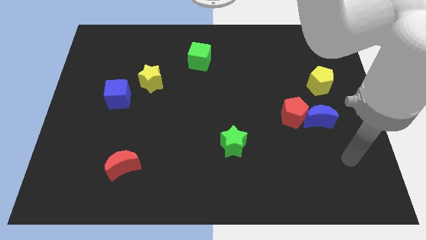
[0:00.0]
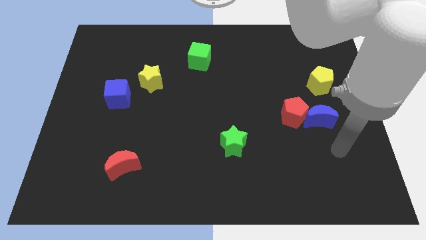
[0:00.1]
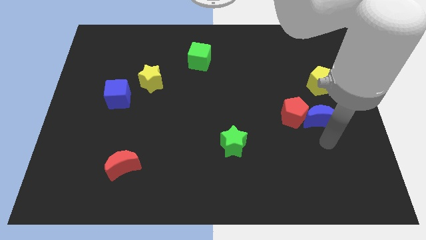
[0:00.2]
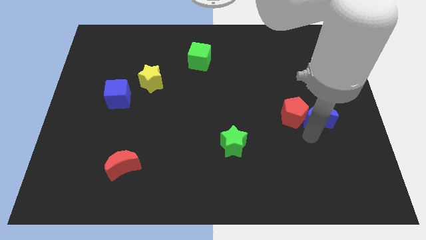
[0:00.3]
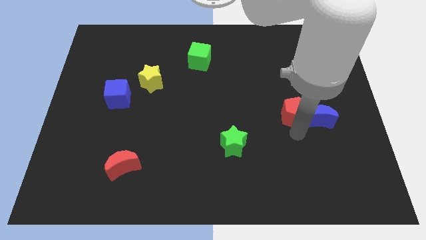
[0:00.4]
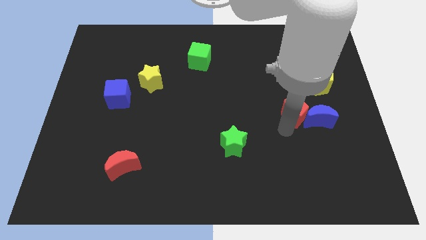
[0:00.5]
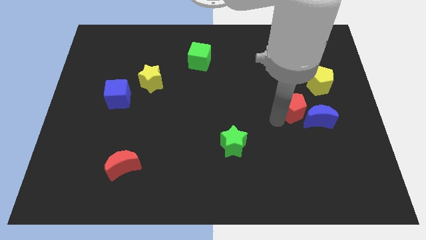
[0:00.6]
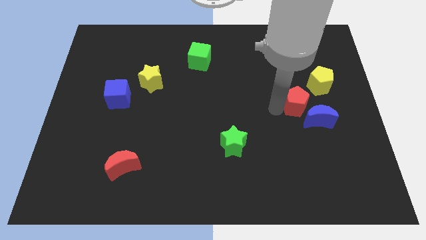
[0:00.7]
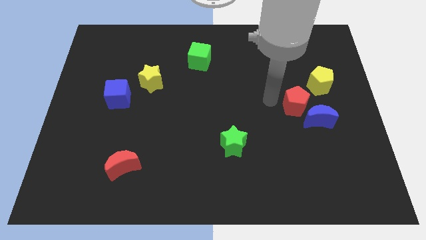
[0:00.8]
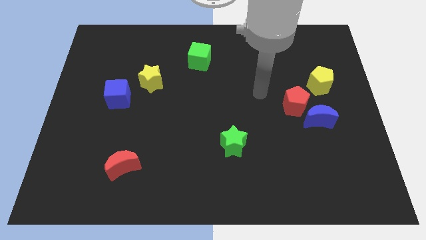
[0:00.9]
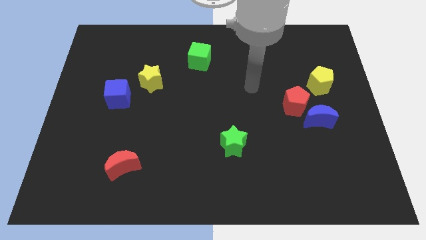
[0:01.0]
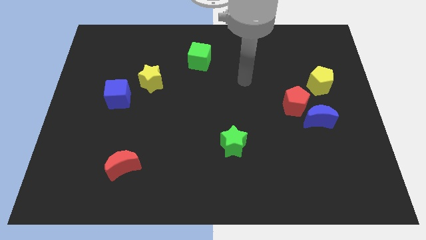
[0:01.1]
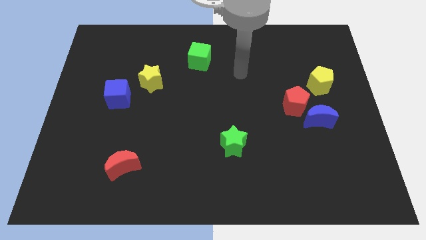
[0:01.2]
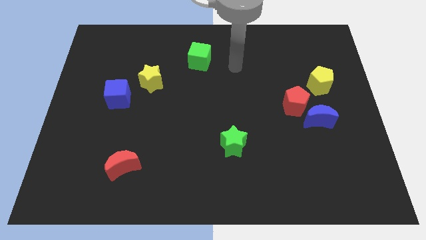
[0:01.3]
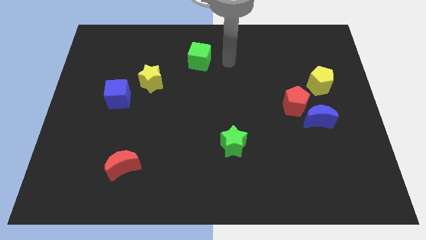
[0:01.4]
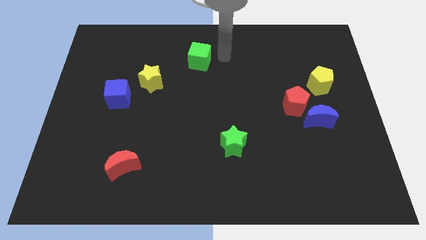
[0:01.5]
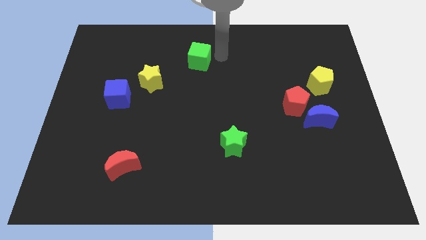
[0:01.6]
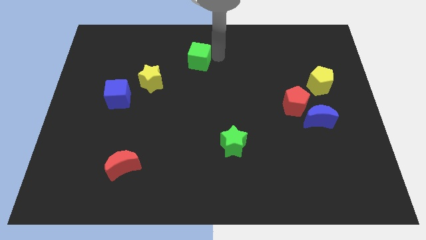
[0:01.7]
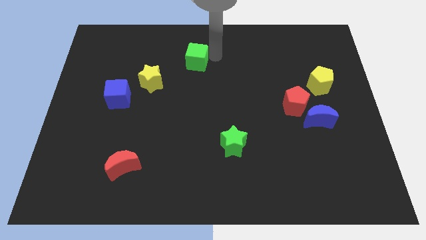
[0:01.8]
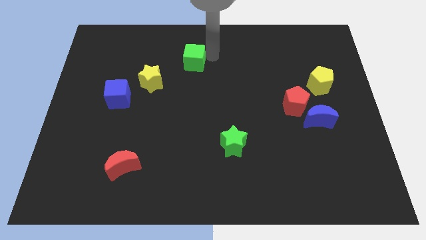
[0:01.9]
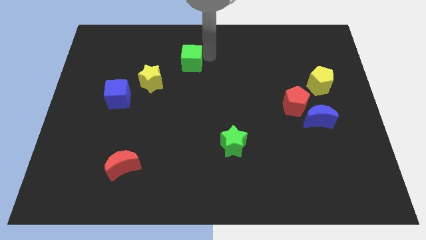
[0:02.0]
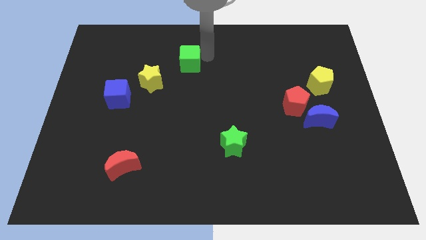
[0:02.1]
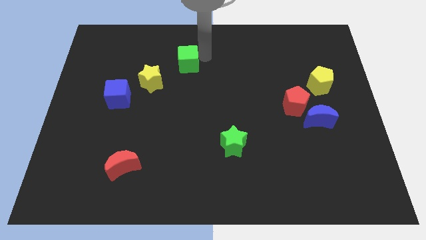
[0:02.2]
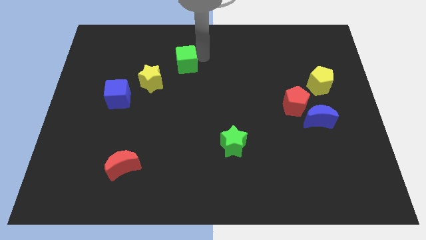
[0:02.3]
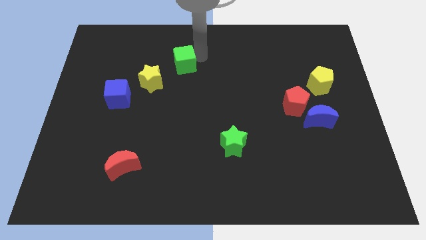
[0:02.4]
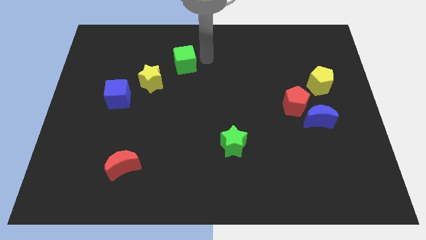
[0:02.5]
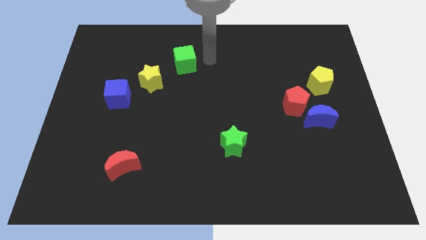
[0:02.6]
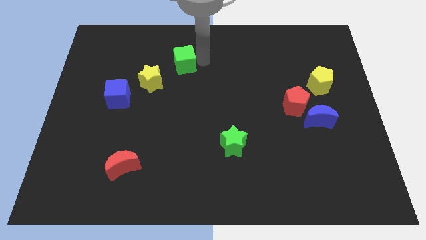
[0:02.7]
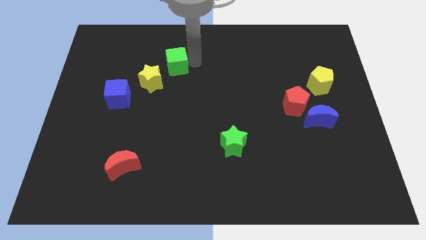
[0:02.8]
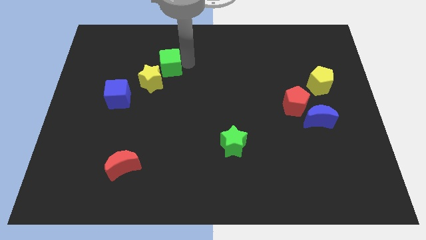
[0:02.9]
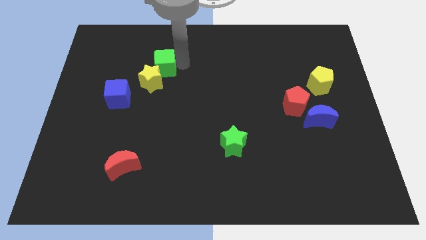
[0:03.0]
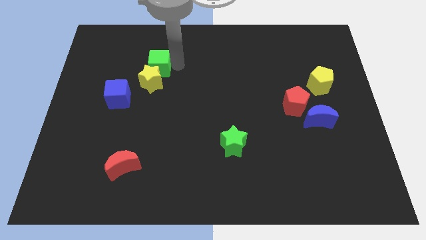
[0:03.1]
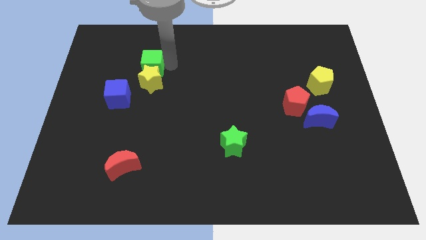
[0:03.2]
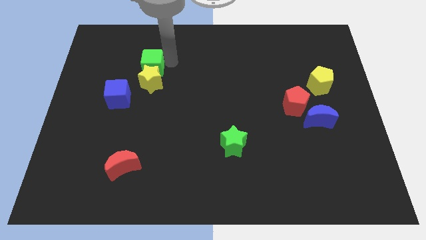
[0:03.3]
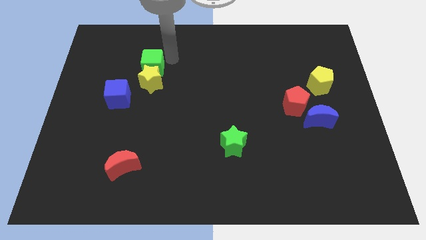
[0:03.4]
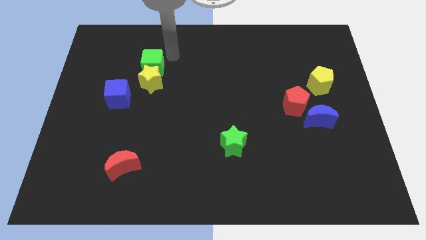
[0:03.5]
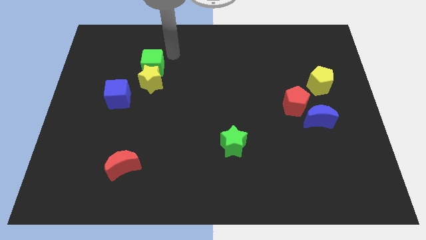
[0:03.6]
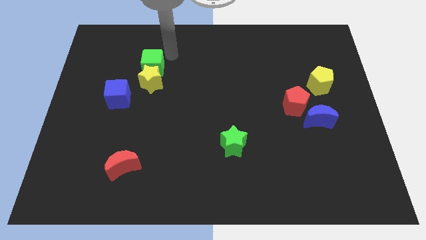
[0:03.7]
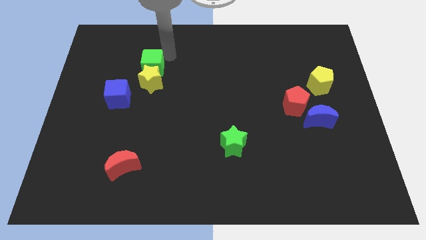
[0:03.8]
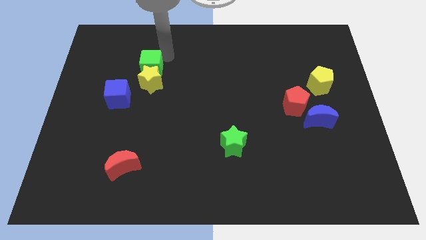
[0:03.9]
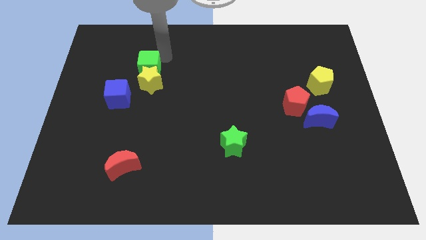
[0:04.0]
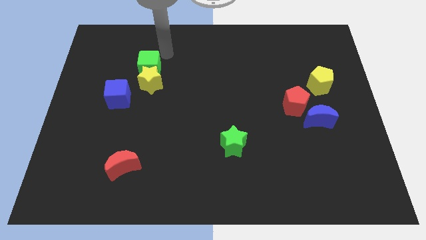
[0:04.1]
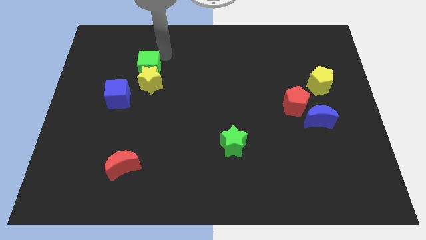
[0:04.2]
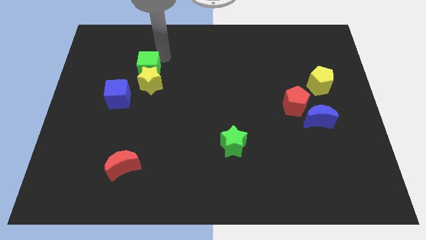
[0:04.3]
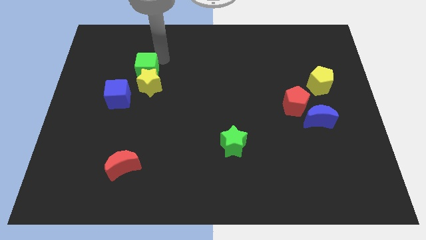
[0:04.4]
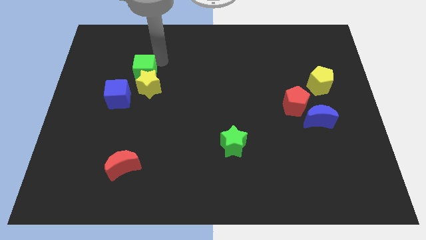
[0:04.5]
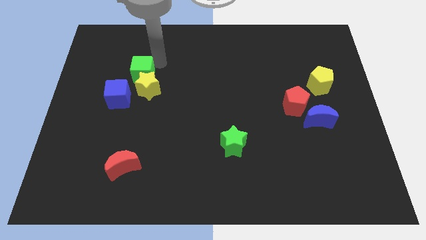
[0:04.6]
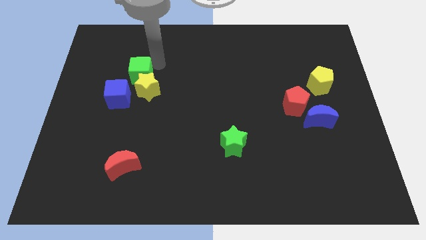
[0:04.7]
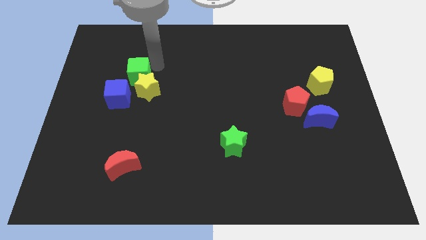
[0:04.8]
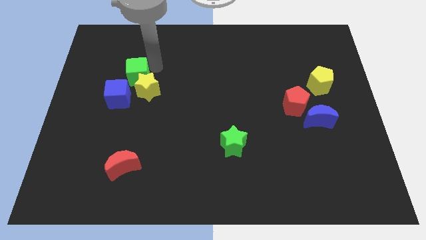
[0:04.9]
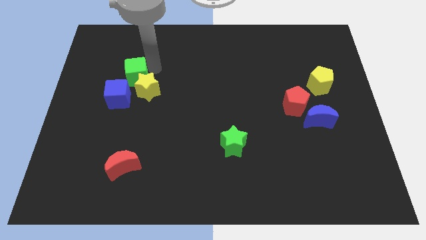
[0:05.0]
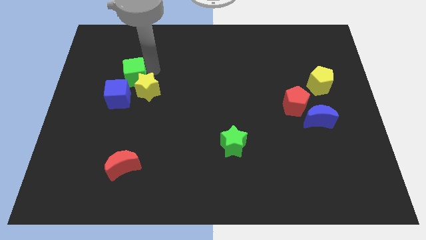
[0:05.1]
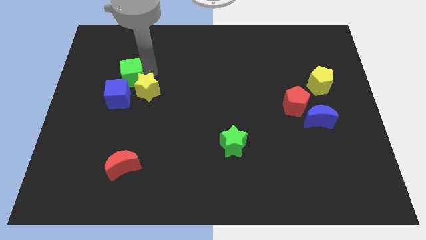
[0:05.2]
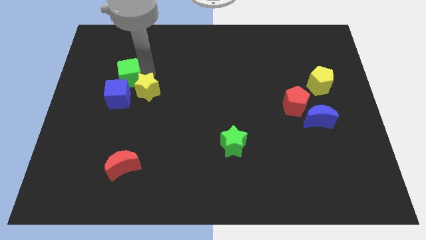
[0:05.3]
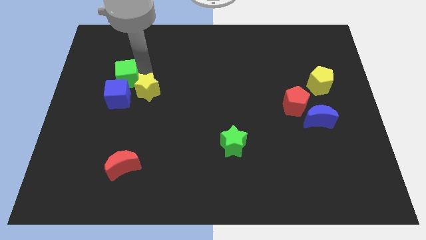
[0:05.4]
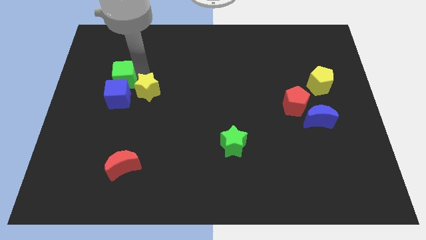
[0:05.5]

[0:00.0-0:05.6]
move the green cube next to the blue cube

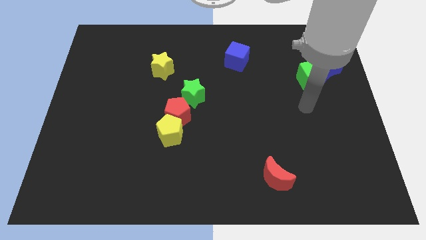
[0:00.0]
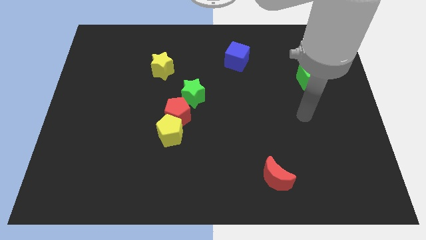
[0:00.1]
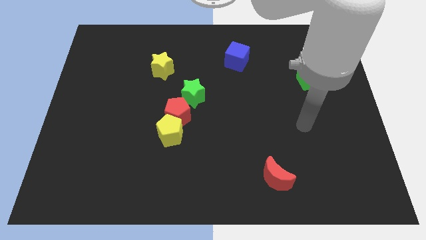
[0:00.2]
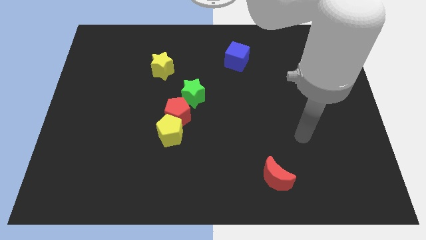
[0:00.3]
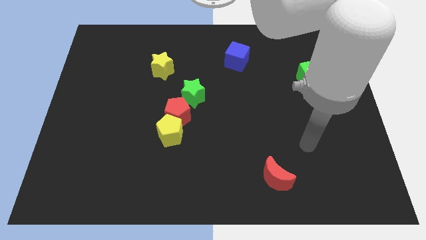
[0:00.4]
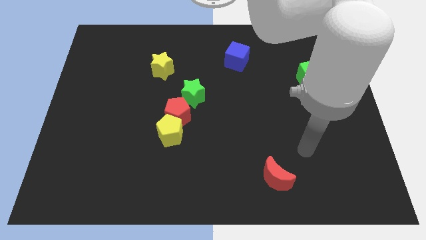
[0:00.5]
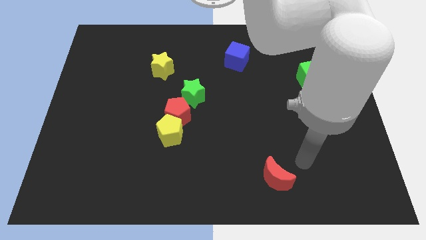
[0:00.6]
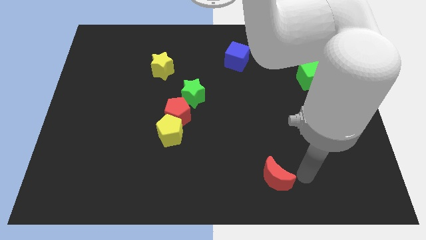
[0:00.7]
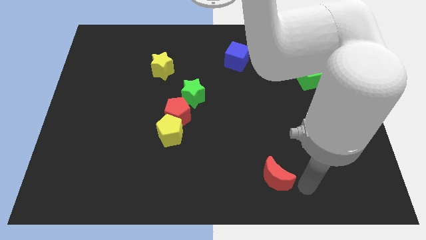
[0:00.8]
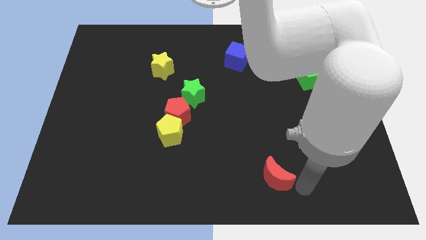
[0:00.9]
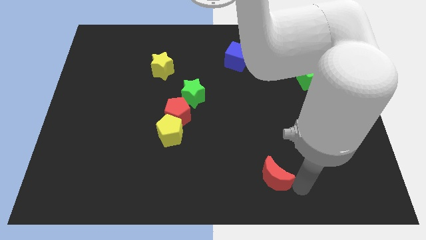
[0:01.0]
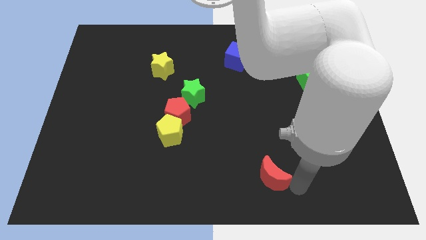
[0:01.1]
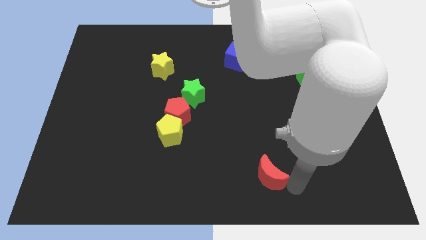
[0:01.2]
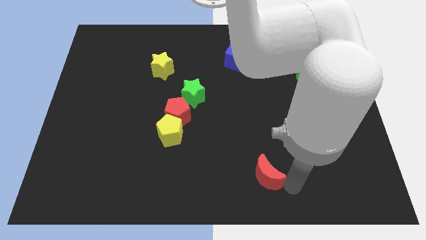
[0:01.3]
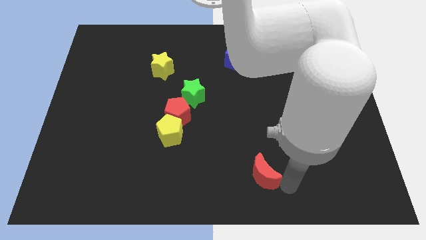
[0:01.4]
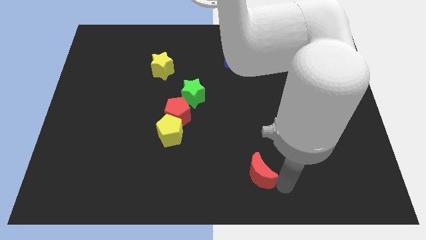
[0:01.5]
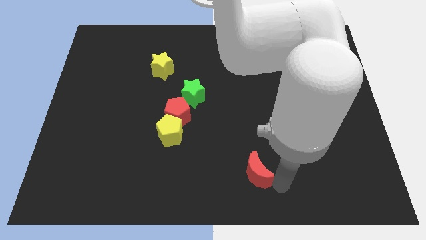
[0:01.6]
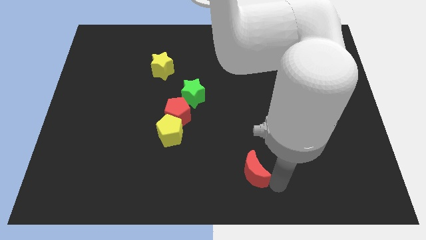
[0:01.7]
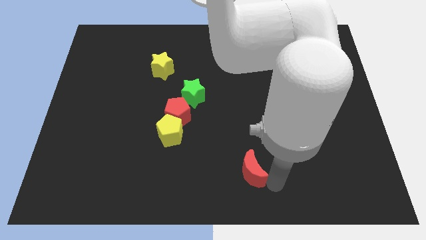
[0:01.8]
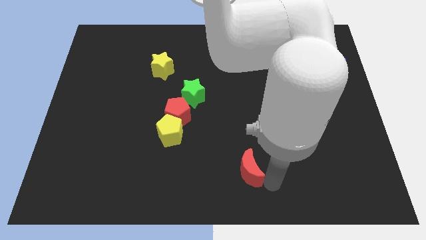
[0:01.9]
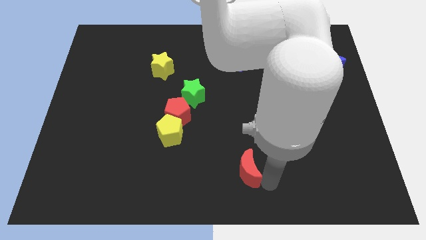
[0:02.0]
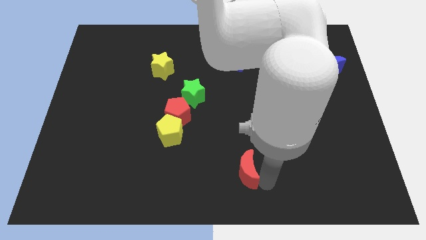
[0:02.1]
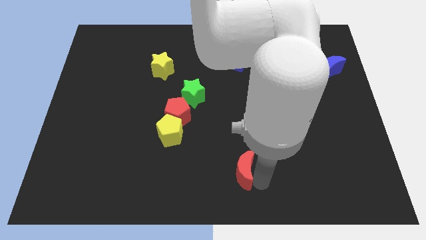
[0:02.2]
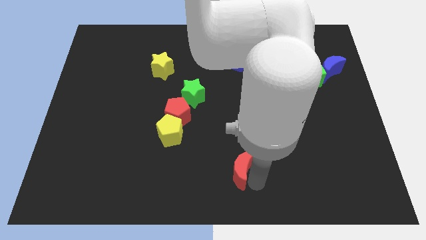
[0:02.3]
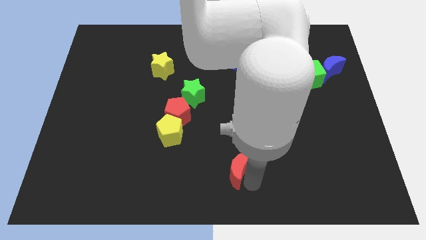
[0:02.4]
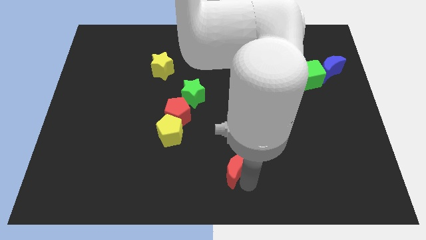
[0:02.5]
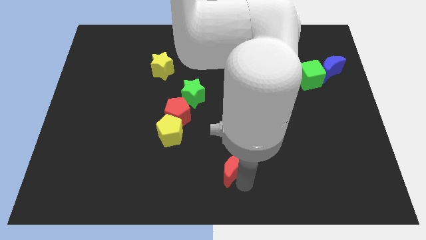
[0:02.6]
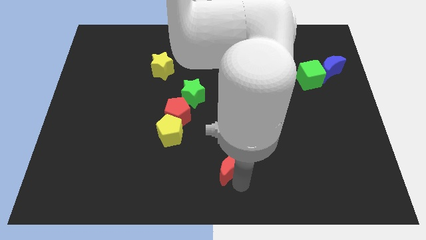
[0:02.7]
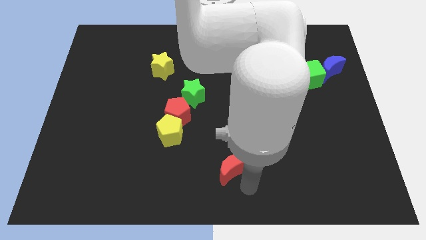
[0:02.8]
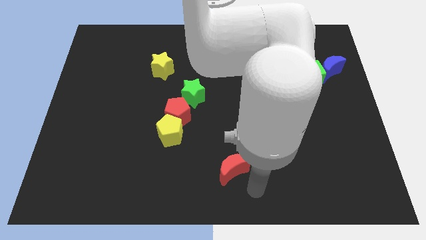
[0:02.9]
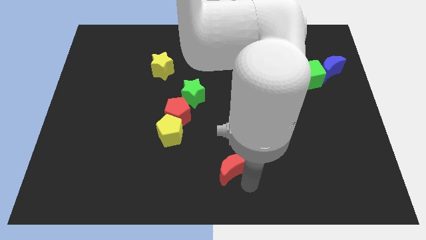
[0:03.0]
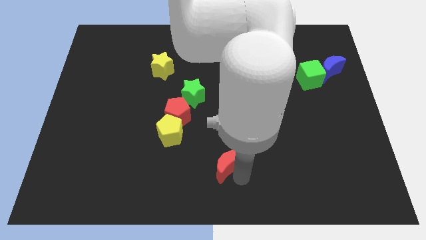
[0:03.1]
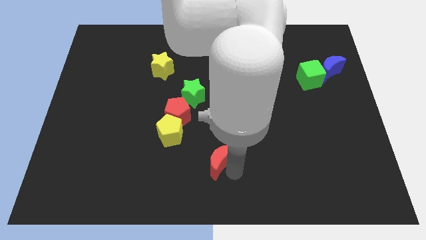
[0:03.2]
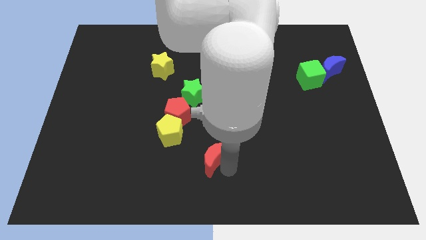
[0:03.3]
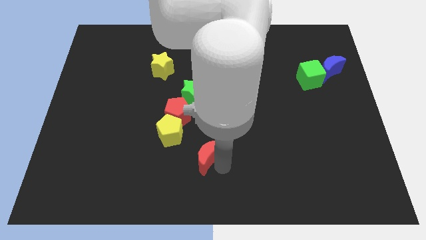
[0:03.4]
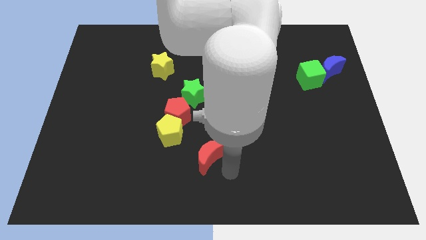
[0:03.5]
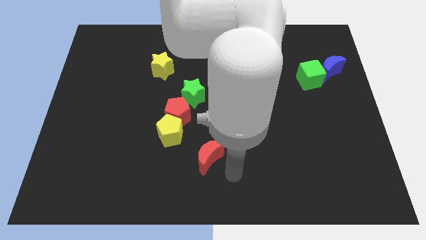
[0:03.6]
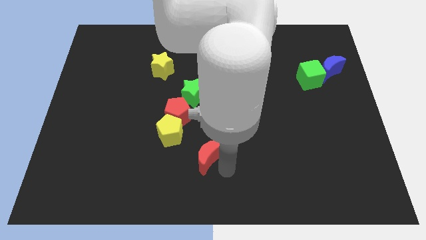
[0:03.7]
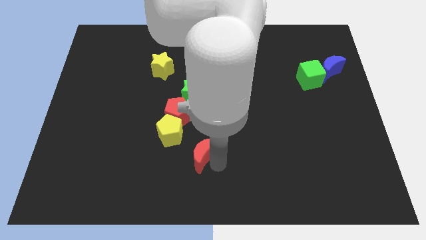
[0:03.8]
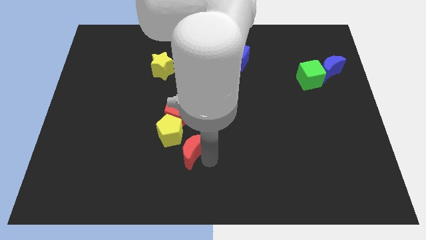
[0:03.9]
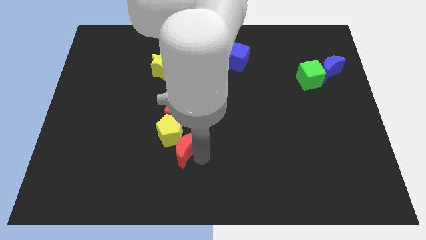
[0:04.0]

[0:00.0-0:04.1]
push the red moon towards the yellow pentagon
